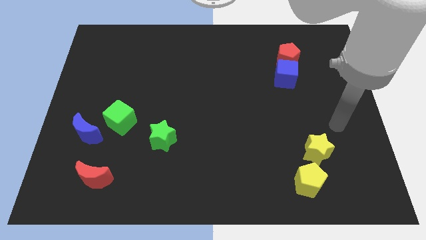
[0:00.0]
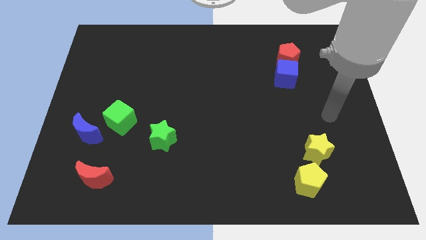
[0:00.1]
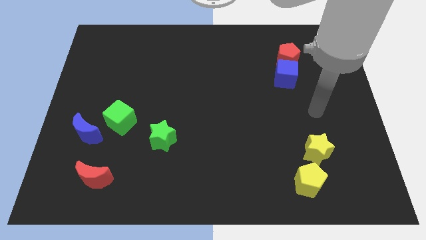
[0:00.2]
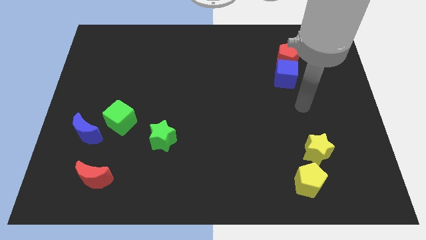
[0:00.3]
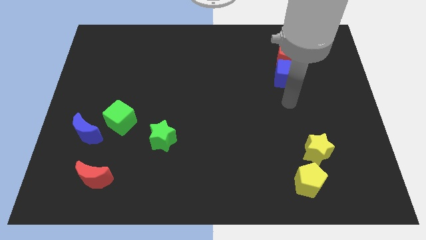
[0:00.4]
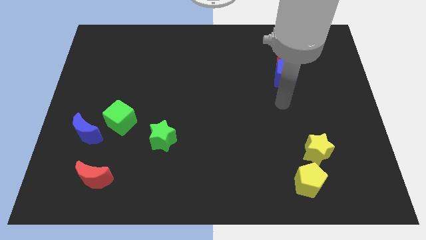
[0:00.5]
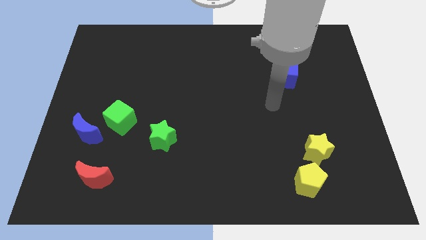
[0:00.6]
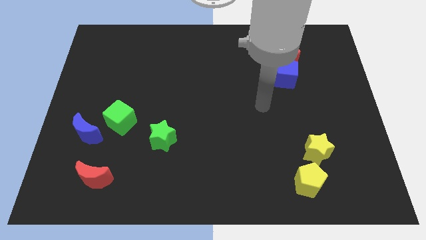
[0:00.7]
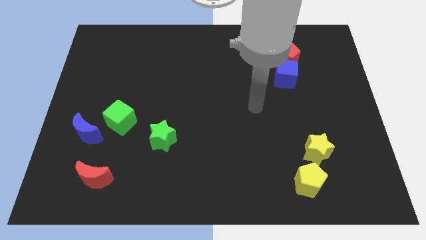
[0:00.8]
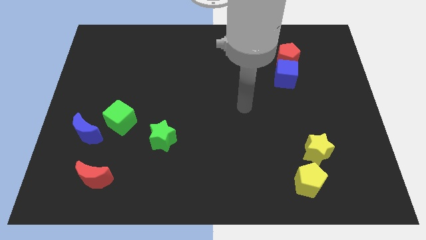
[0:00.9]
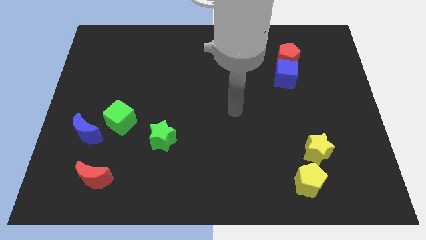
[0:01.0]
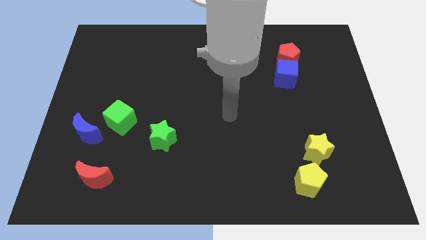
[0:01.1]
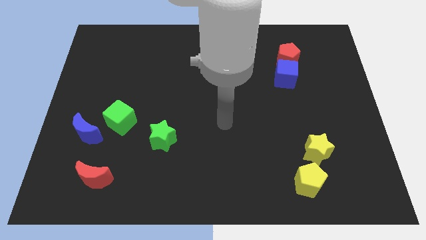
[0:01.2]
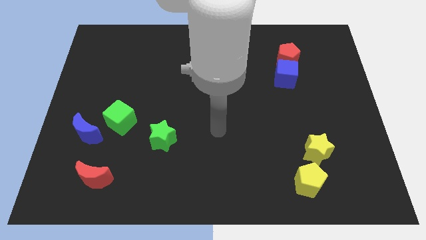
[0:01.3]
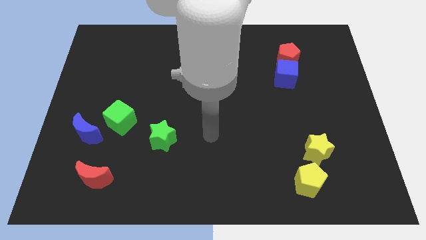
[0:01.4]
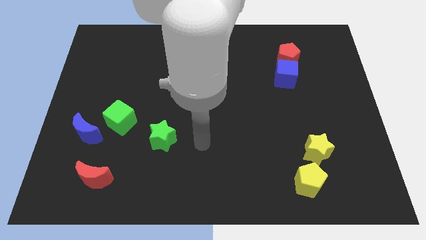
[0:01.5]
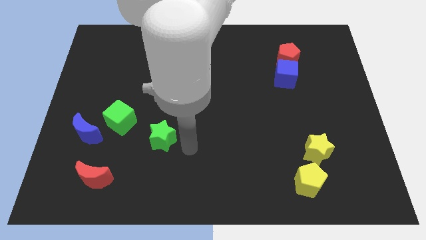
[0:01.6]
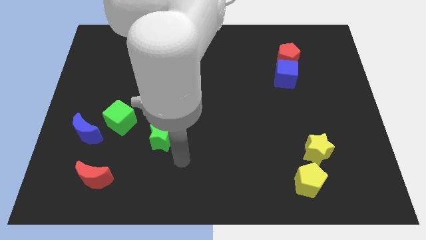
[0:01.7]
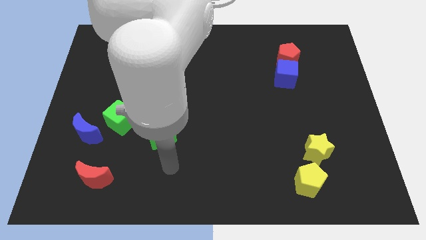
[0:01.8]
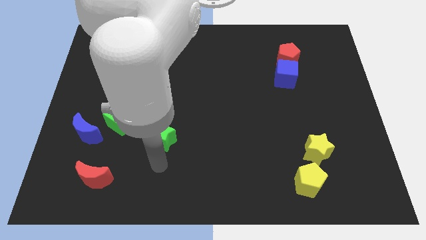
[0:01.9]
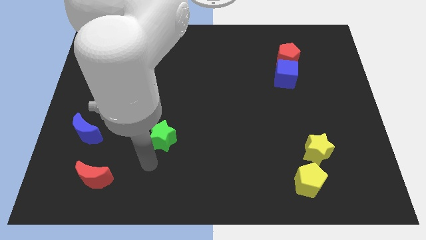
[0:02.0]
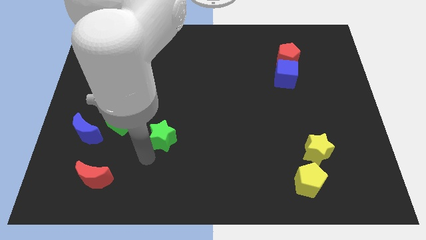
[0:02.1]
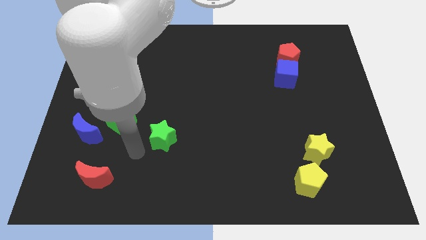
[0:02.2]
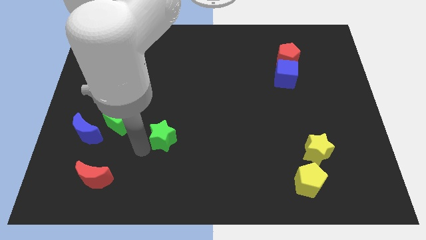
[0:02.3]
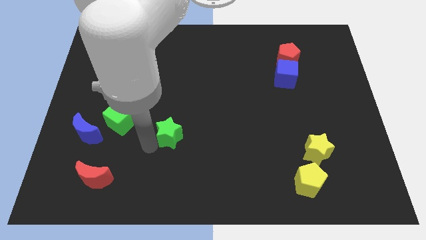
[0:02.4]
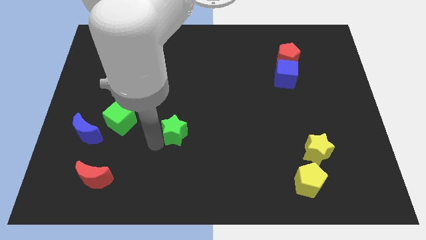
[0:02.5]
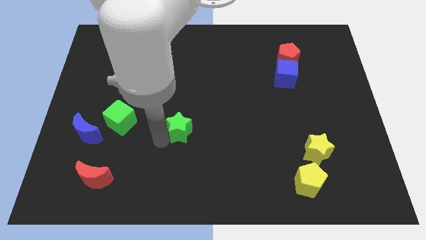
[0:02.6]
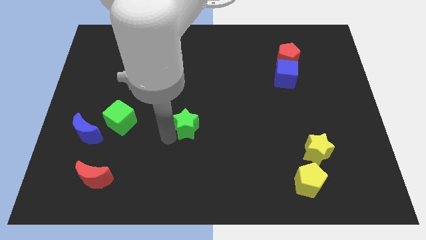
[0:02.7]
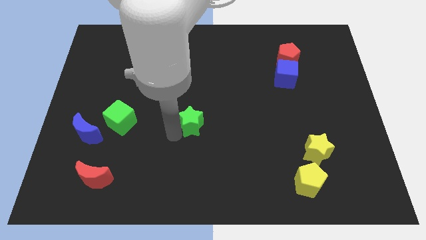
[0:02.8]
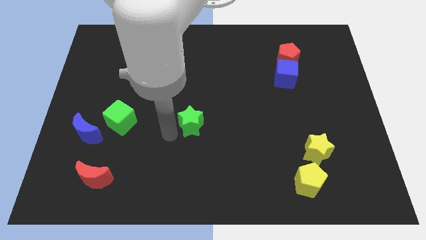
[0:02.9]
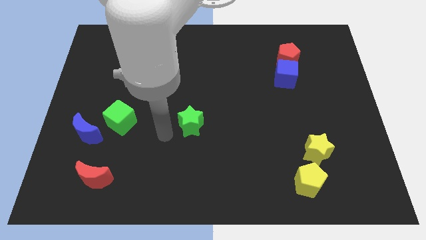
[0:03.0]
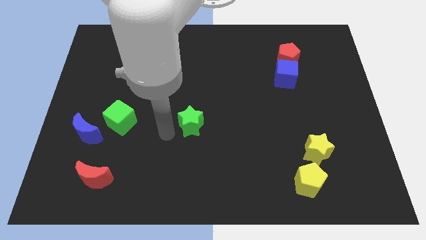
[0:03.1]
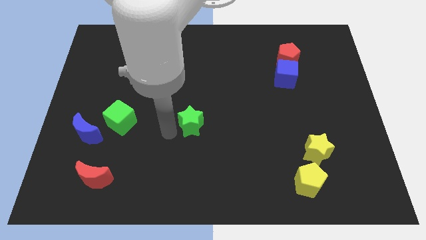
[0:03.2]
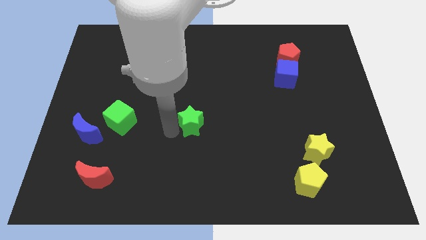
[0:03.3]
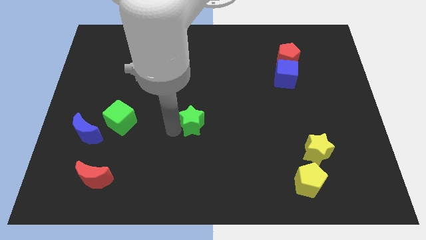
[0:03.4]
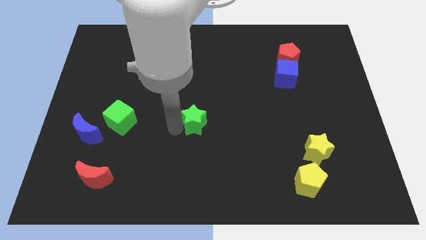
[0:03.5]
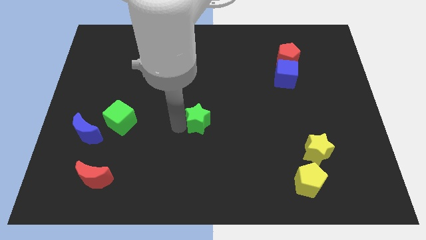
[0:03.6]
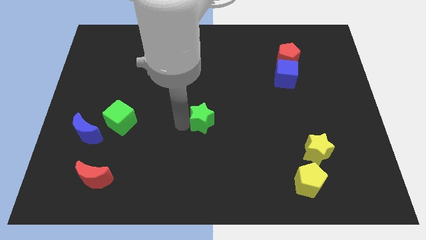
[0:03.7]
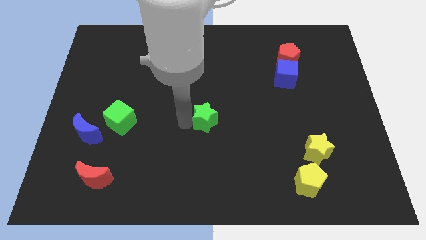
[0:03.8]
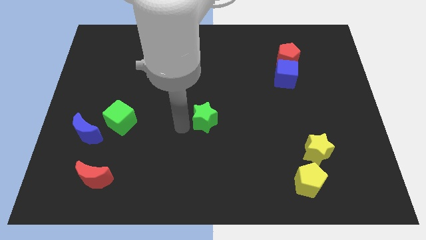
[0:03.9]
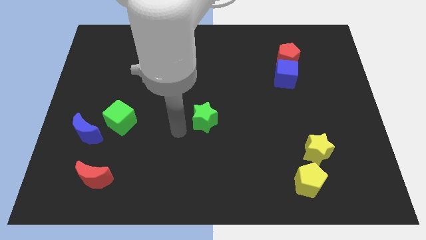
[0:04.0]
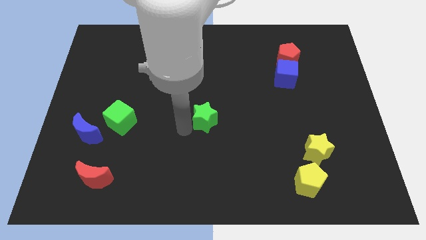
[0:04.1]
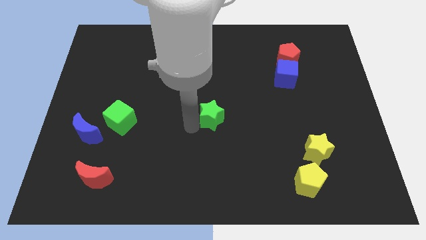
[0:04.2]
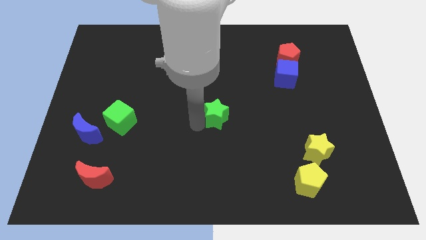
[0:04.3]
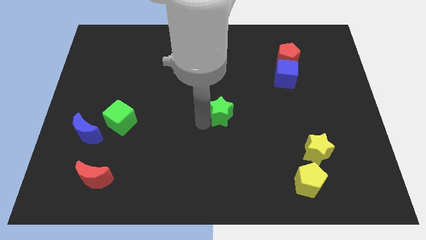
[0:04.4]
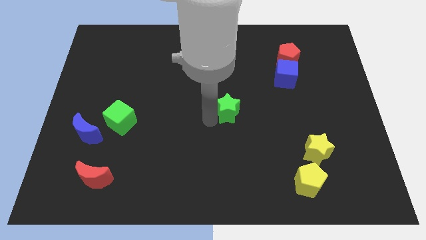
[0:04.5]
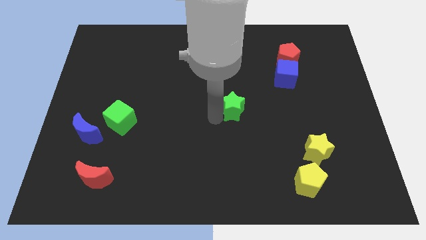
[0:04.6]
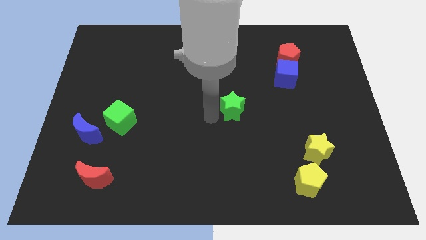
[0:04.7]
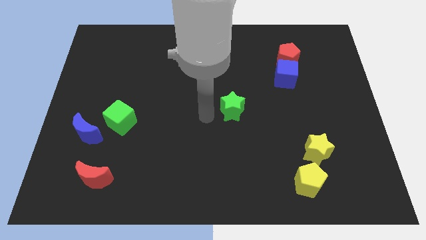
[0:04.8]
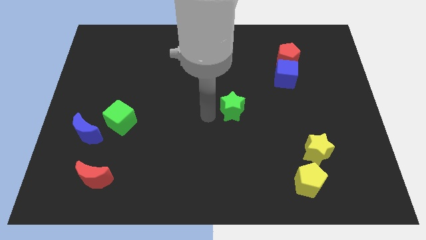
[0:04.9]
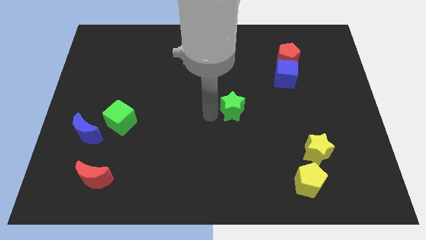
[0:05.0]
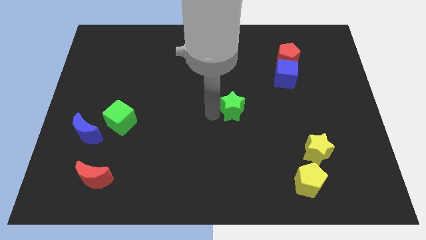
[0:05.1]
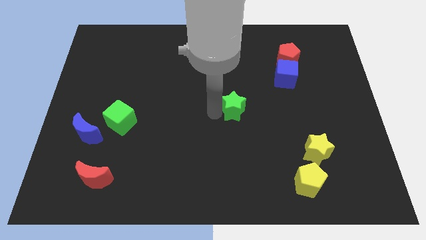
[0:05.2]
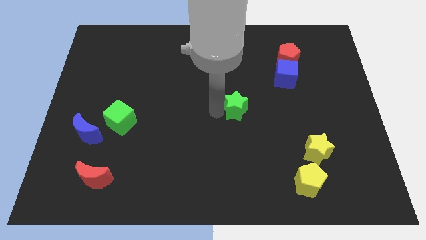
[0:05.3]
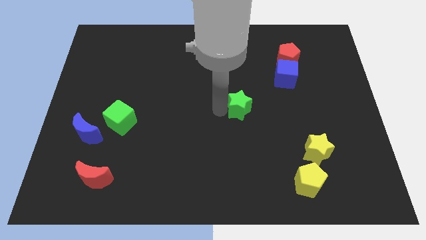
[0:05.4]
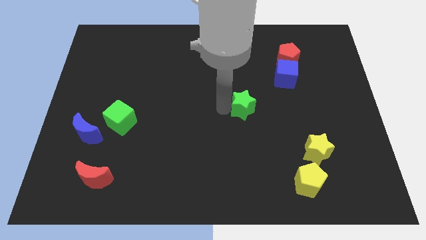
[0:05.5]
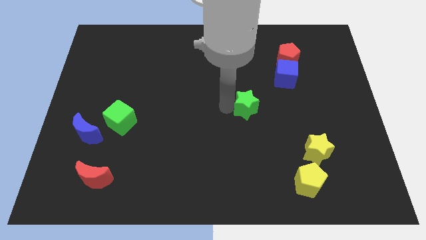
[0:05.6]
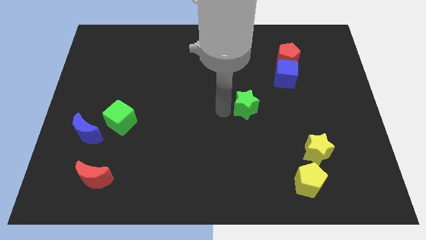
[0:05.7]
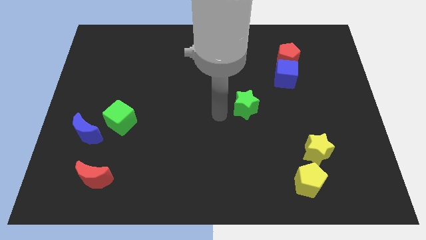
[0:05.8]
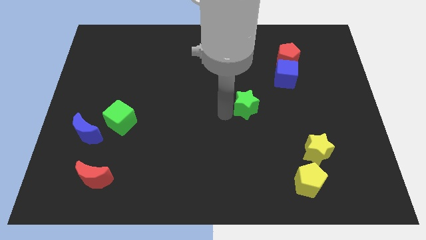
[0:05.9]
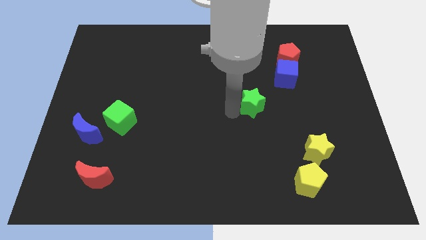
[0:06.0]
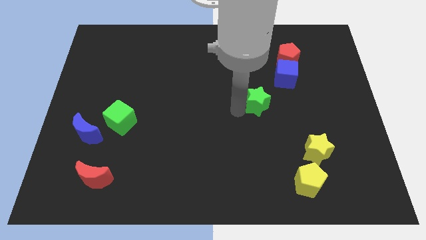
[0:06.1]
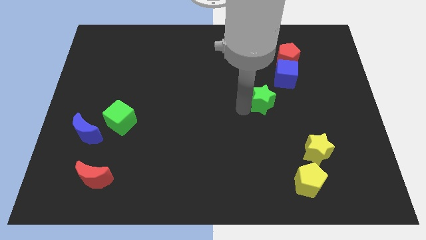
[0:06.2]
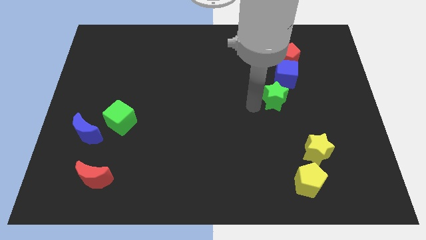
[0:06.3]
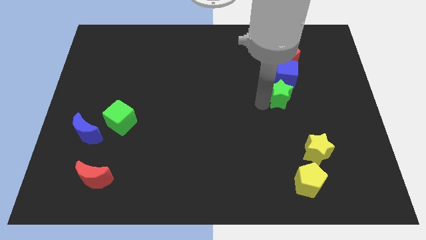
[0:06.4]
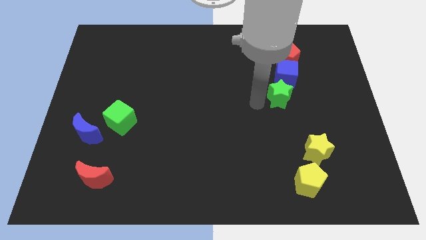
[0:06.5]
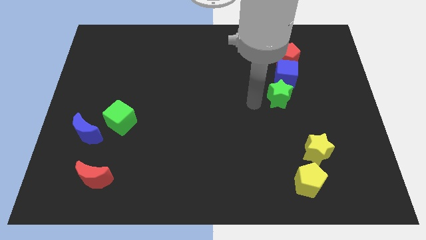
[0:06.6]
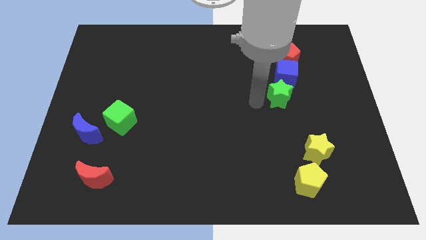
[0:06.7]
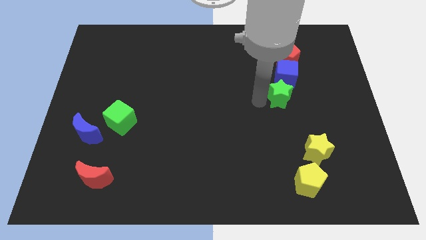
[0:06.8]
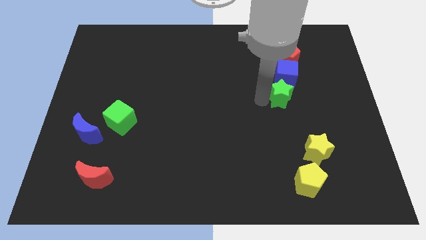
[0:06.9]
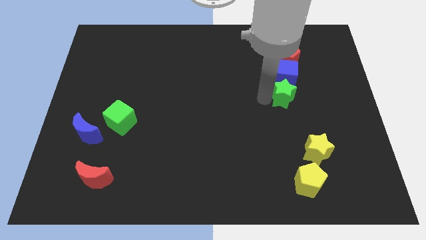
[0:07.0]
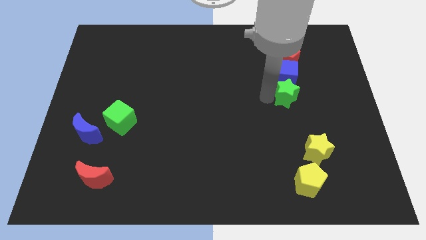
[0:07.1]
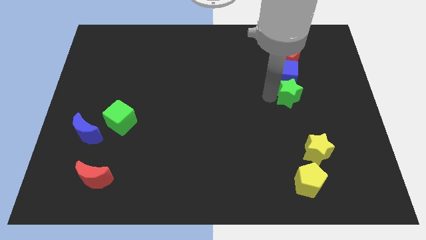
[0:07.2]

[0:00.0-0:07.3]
slide the green star to the bottom right of the blue cube

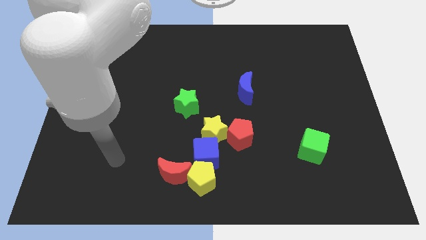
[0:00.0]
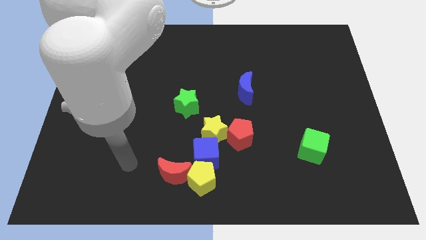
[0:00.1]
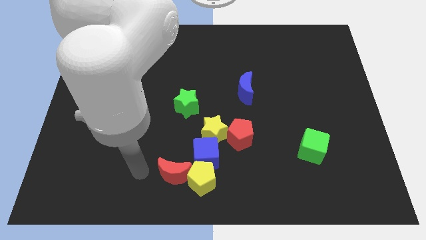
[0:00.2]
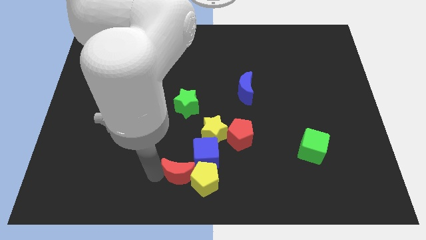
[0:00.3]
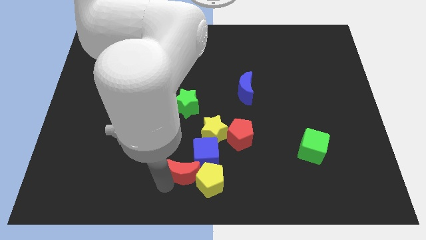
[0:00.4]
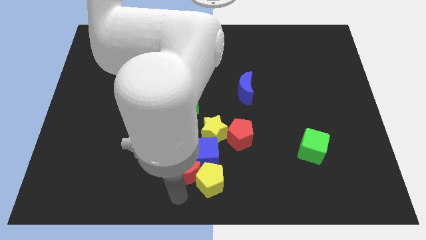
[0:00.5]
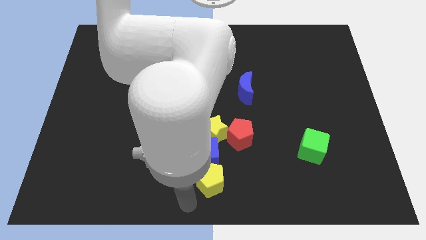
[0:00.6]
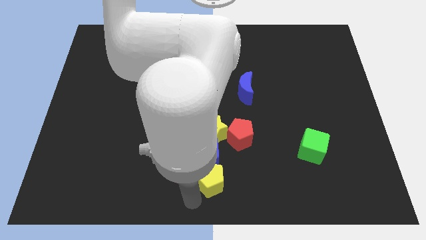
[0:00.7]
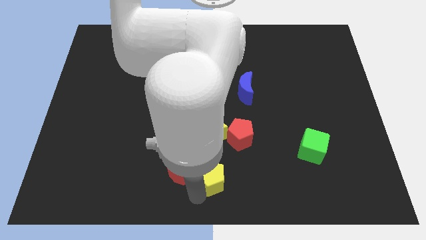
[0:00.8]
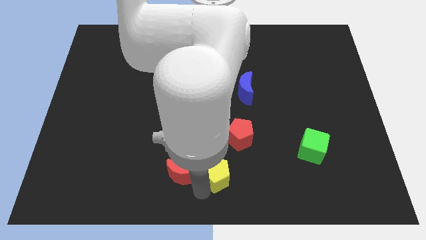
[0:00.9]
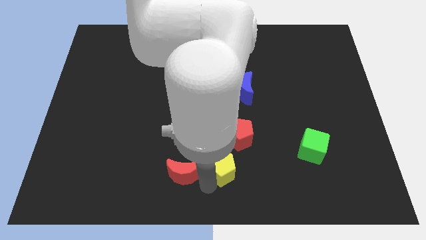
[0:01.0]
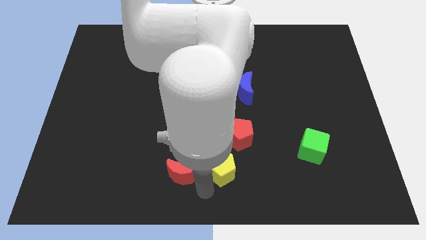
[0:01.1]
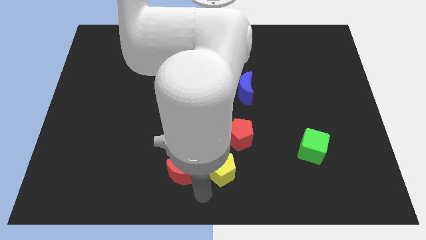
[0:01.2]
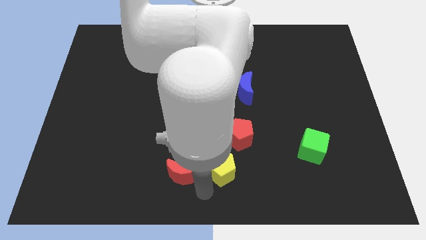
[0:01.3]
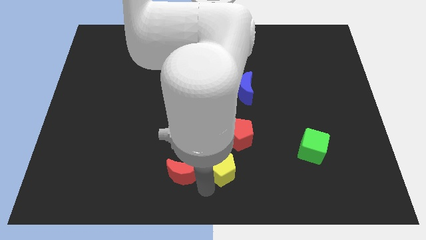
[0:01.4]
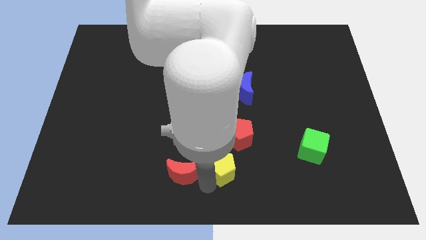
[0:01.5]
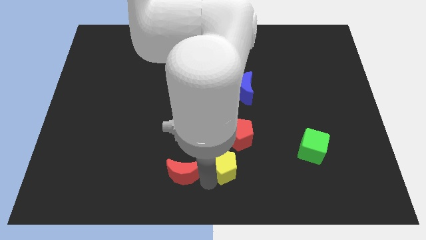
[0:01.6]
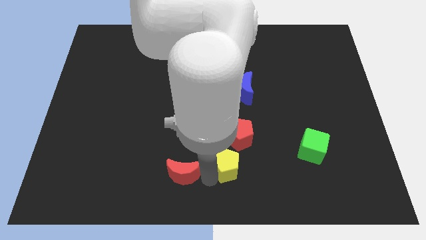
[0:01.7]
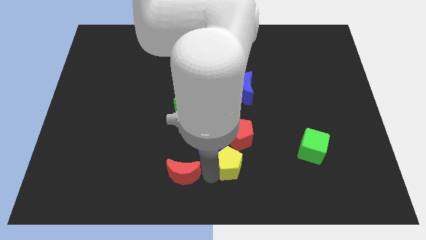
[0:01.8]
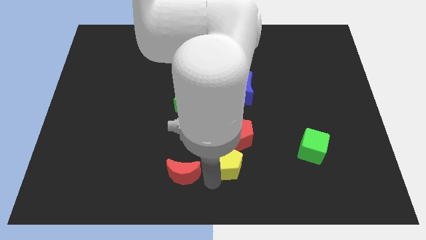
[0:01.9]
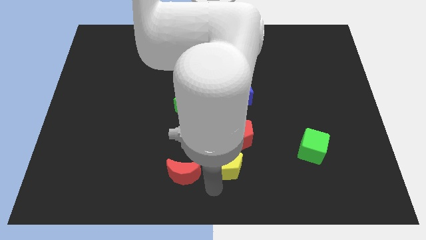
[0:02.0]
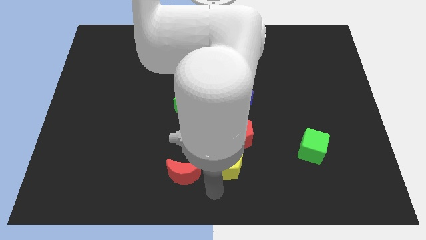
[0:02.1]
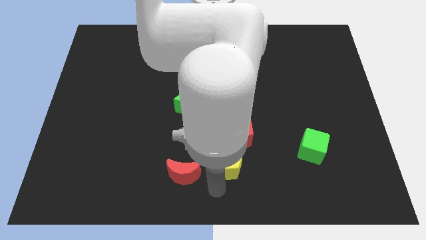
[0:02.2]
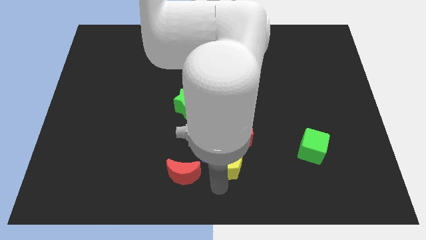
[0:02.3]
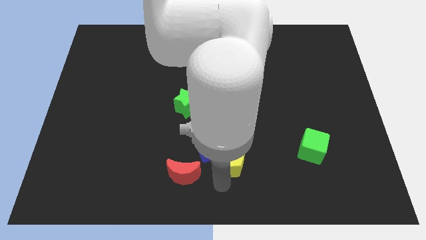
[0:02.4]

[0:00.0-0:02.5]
slide the yellow pentagon to the bottom right of the yellow star
